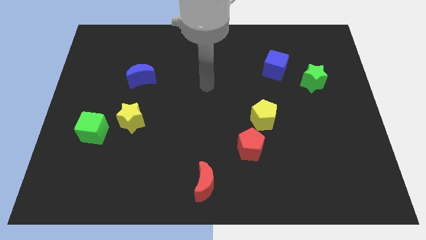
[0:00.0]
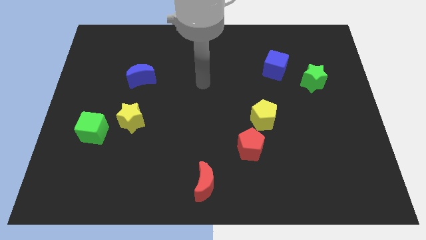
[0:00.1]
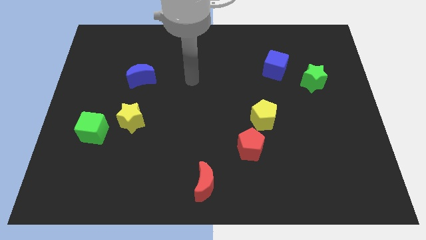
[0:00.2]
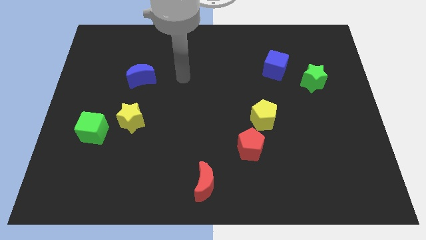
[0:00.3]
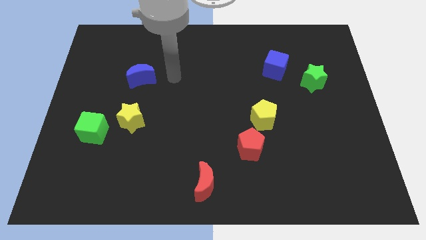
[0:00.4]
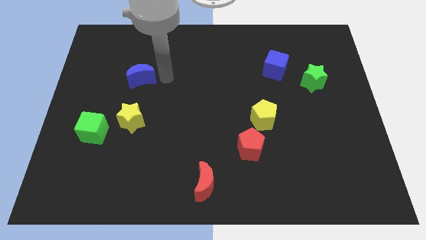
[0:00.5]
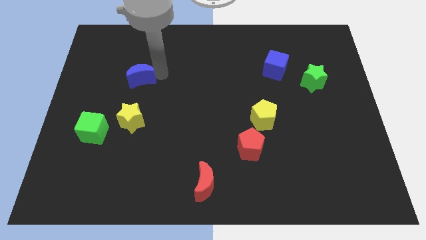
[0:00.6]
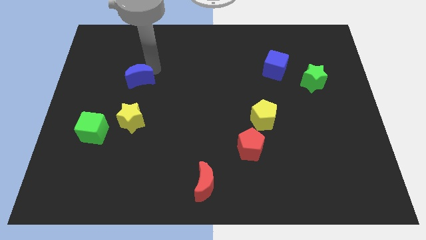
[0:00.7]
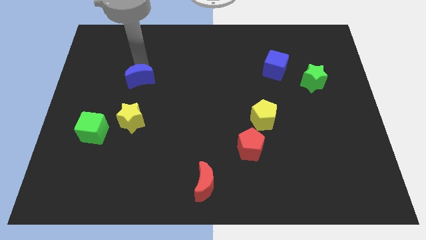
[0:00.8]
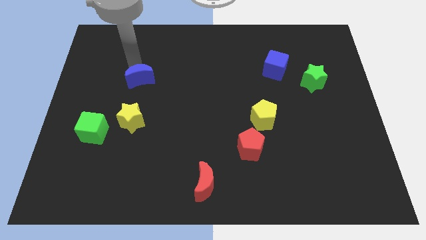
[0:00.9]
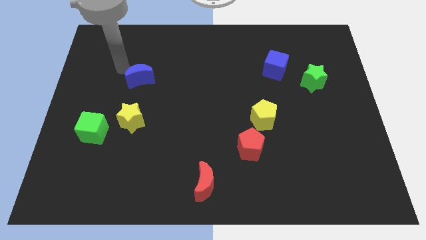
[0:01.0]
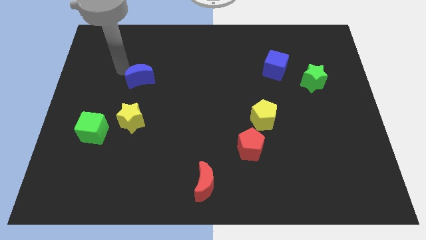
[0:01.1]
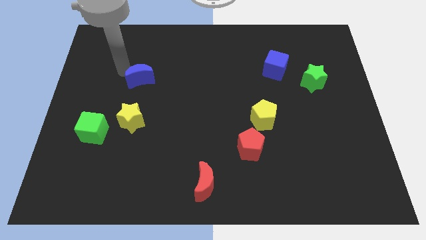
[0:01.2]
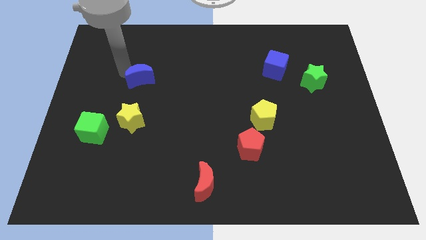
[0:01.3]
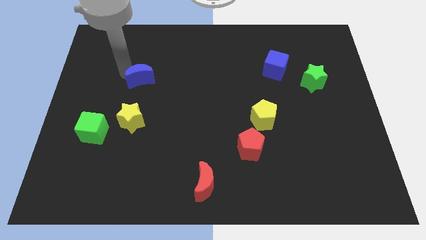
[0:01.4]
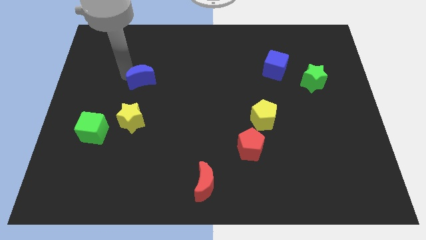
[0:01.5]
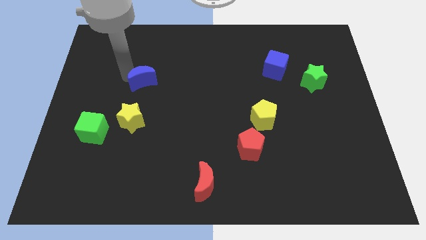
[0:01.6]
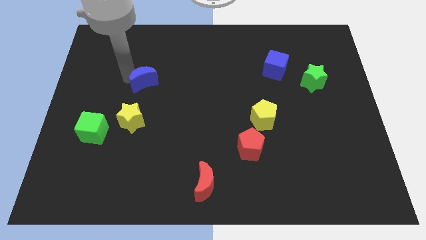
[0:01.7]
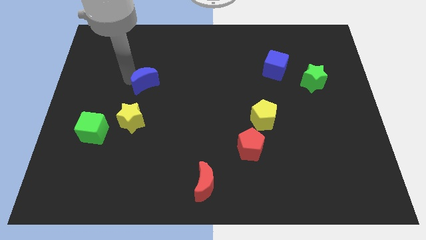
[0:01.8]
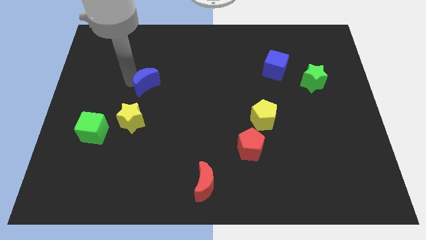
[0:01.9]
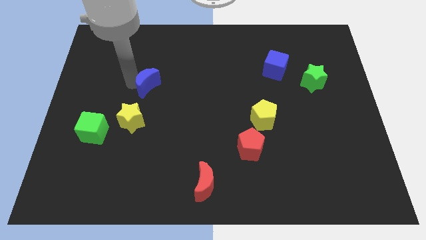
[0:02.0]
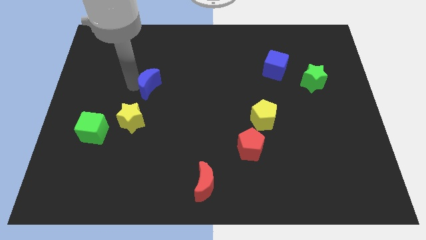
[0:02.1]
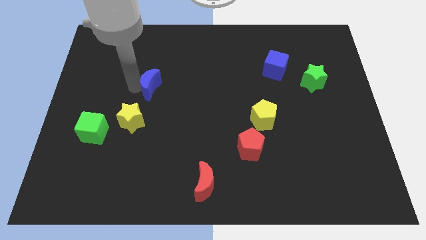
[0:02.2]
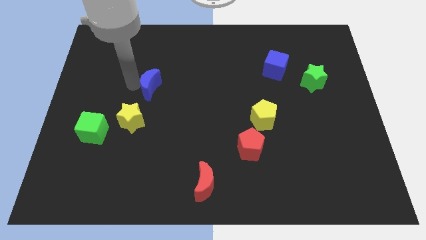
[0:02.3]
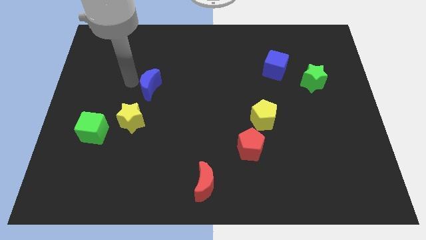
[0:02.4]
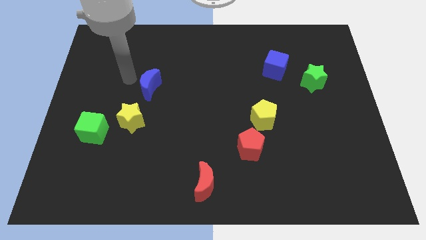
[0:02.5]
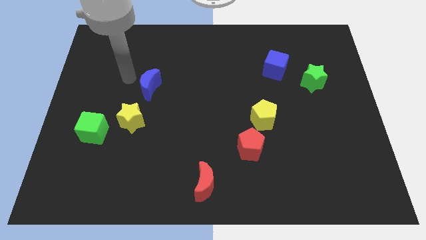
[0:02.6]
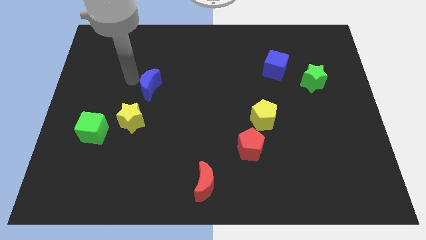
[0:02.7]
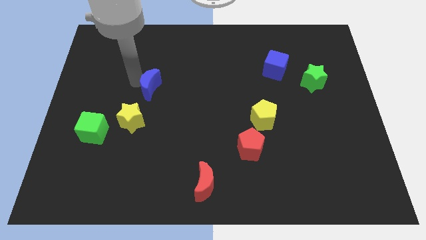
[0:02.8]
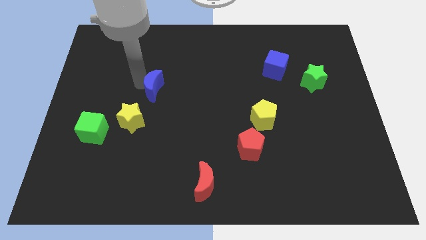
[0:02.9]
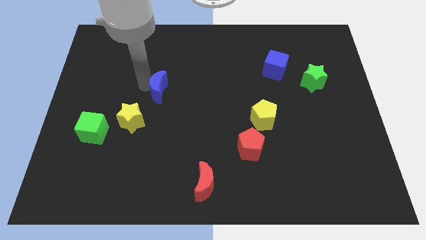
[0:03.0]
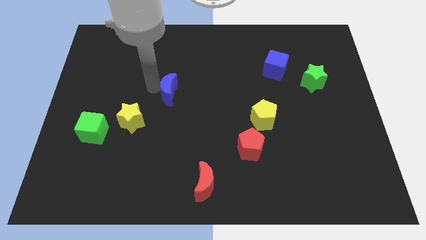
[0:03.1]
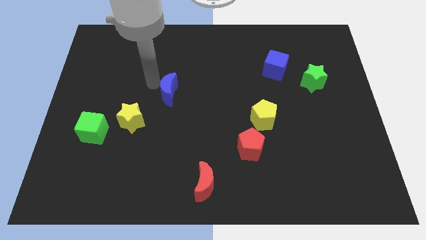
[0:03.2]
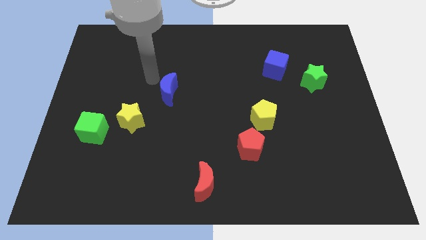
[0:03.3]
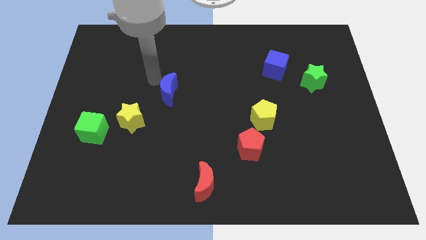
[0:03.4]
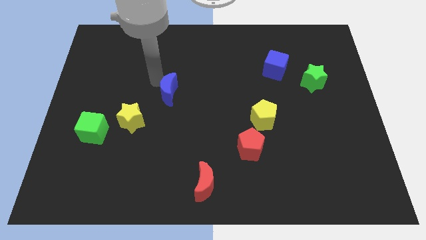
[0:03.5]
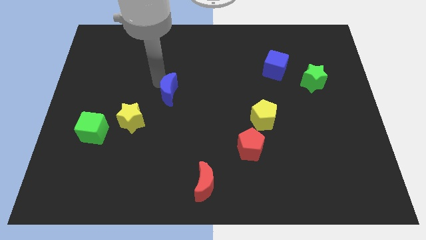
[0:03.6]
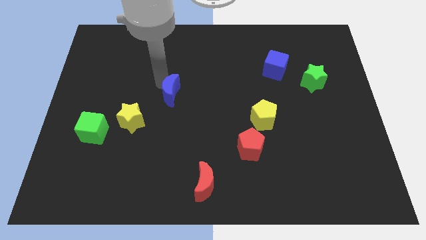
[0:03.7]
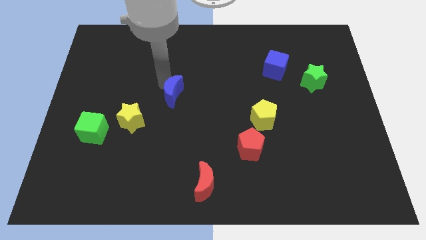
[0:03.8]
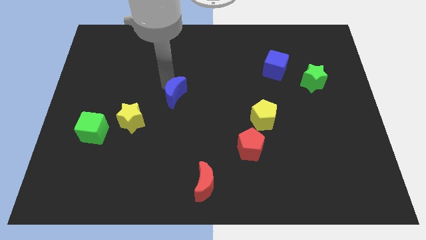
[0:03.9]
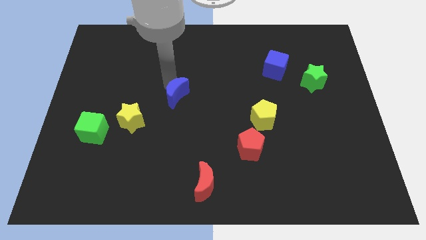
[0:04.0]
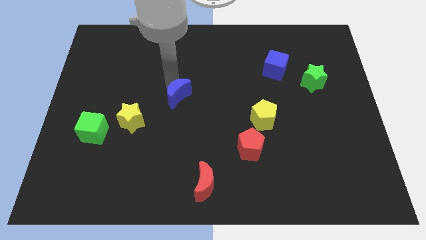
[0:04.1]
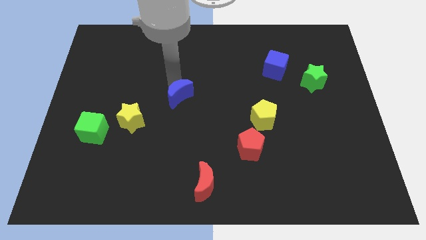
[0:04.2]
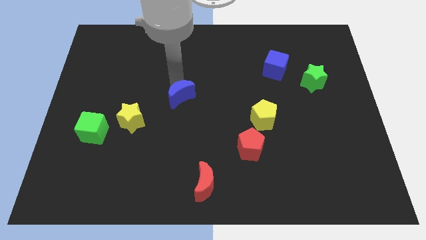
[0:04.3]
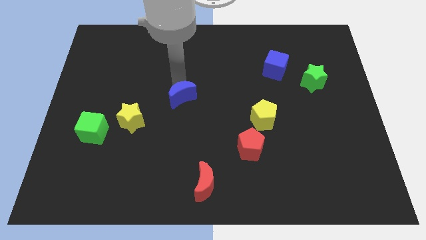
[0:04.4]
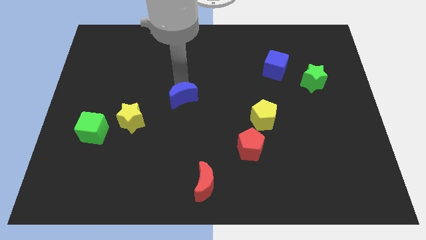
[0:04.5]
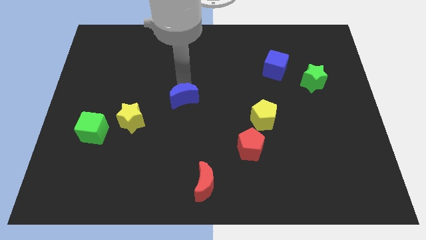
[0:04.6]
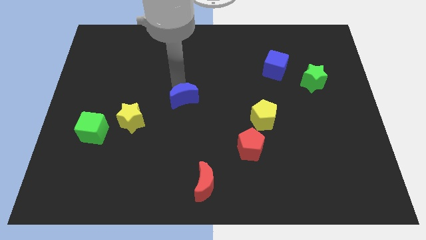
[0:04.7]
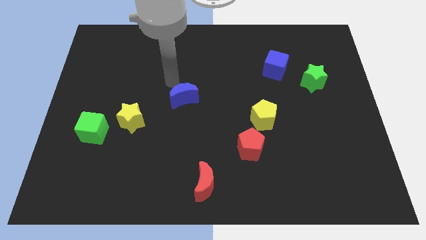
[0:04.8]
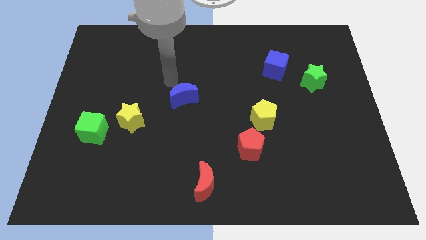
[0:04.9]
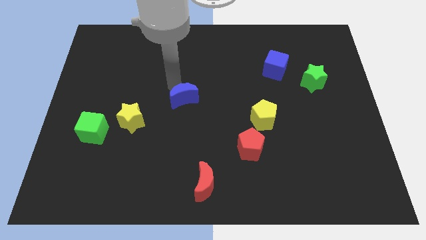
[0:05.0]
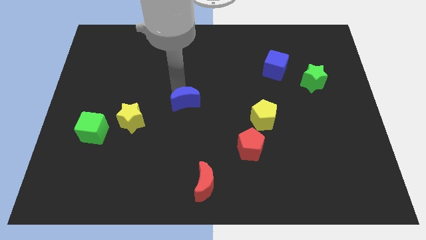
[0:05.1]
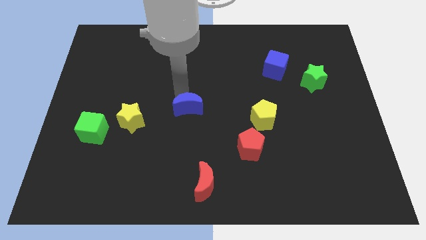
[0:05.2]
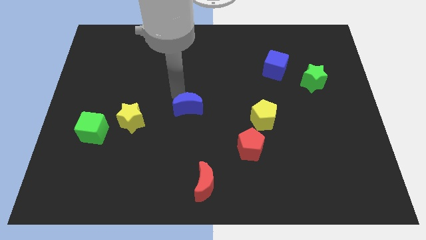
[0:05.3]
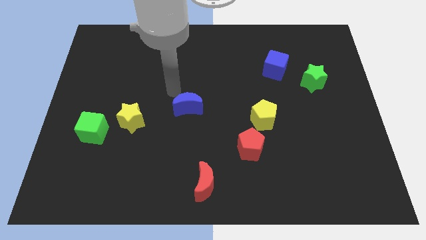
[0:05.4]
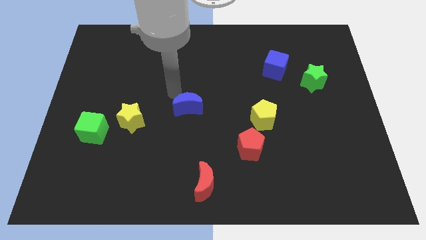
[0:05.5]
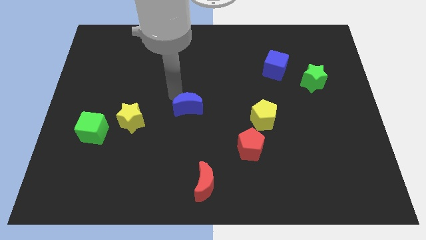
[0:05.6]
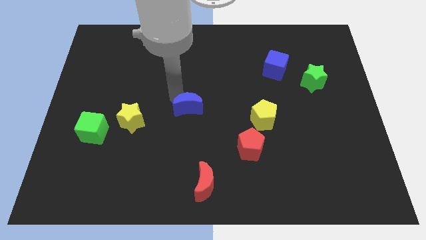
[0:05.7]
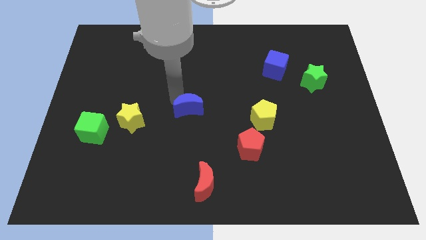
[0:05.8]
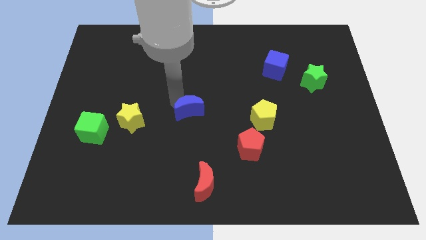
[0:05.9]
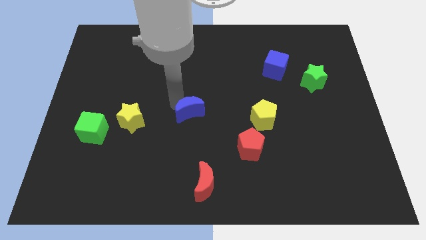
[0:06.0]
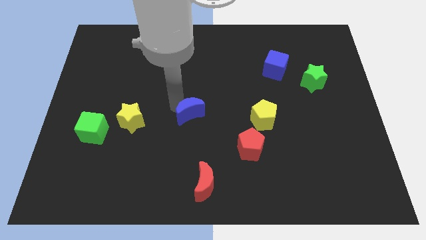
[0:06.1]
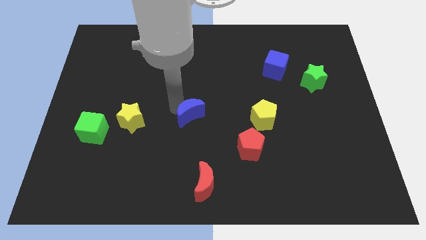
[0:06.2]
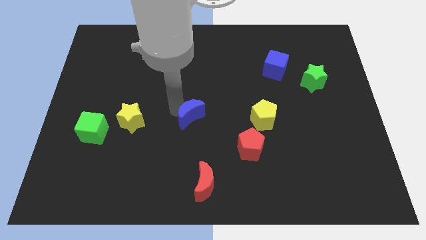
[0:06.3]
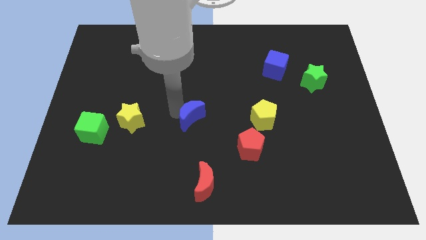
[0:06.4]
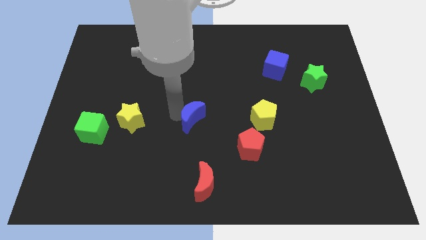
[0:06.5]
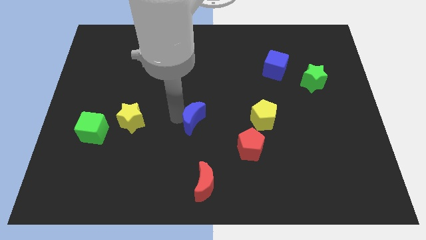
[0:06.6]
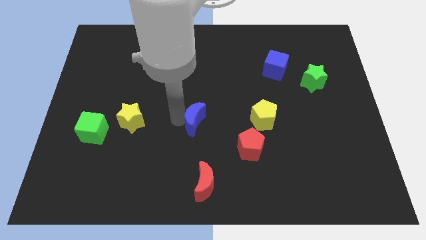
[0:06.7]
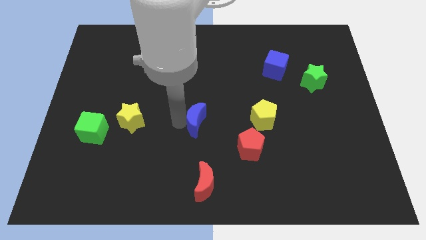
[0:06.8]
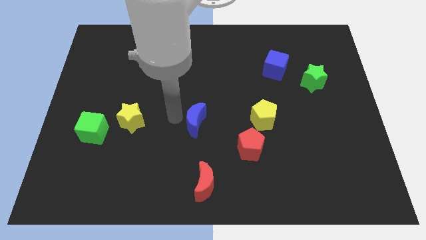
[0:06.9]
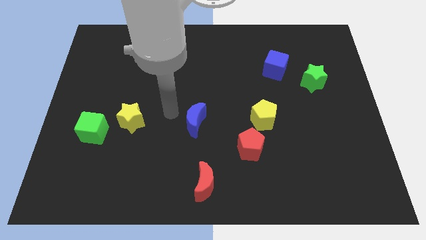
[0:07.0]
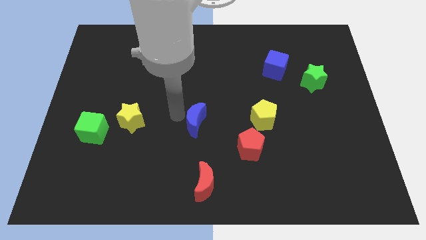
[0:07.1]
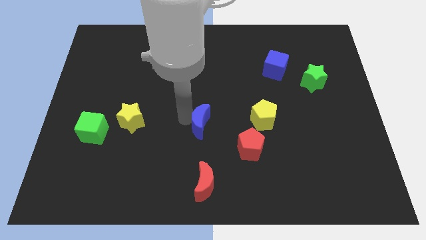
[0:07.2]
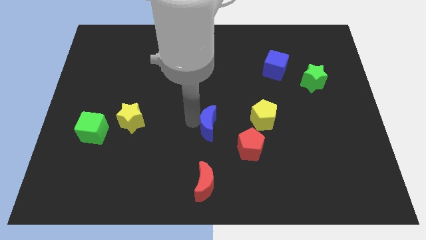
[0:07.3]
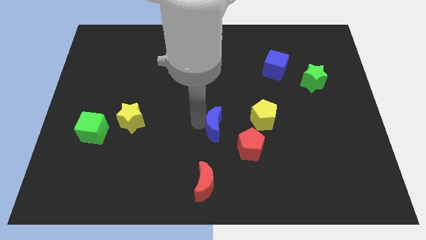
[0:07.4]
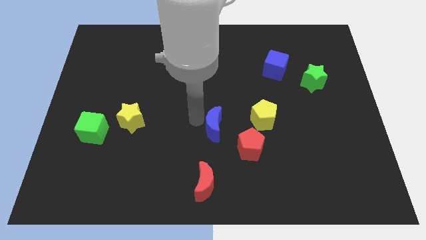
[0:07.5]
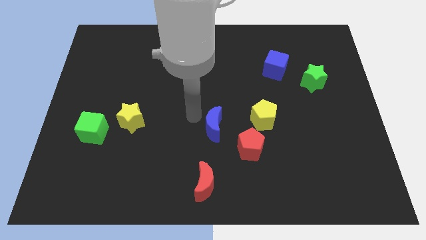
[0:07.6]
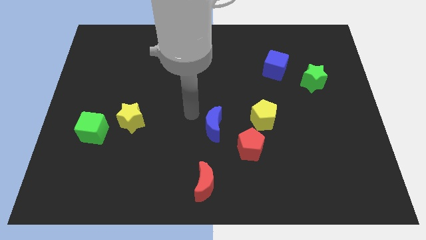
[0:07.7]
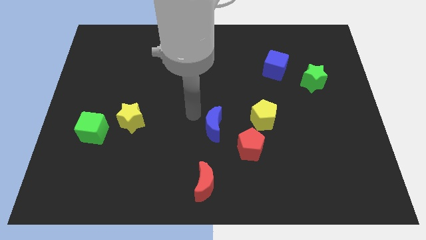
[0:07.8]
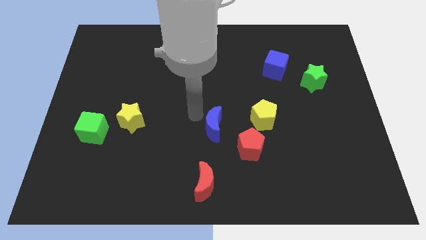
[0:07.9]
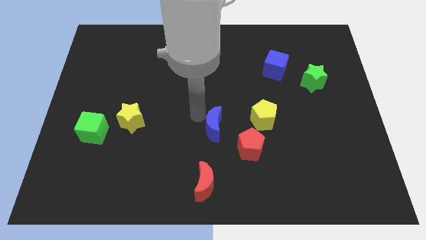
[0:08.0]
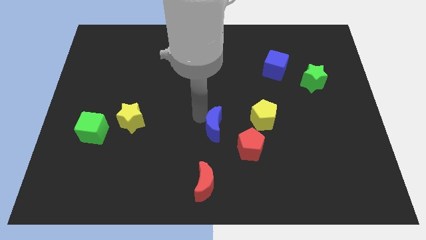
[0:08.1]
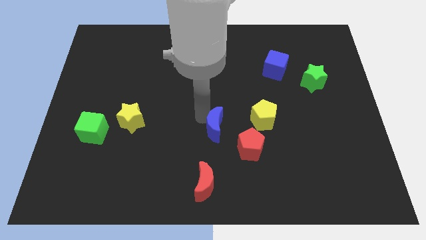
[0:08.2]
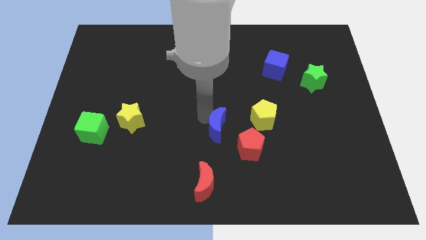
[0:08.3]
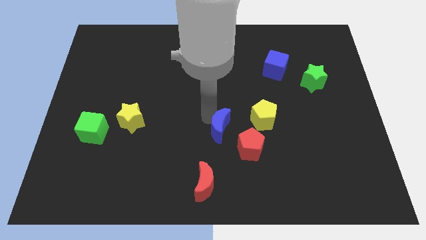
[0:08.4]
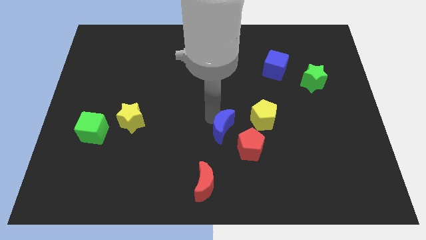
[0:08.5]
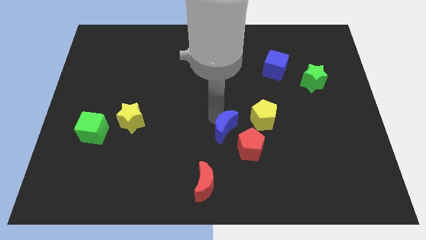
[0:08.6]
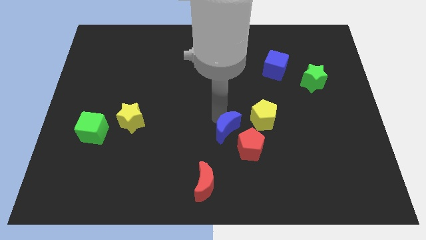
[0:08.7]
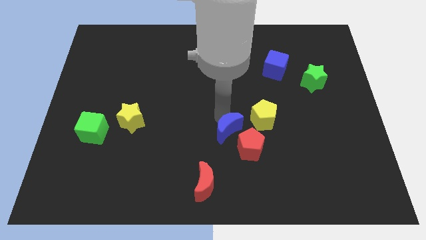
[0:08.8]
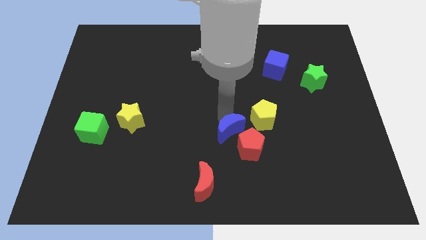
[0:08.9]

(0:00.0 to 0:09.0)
slide the blue moon to the red pentagon
